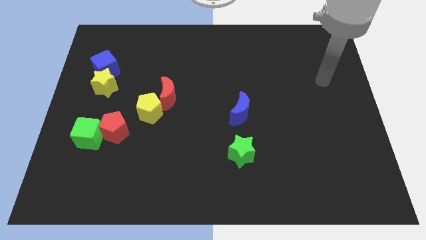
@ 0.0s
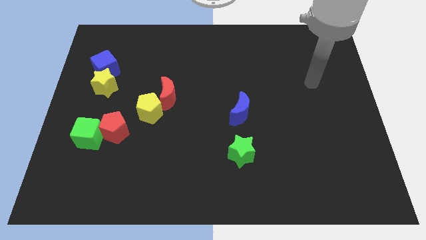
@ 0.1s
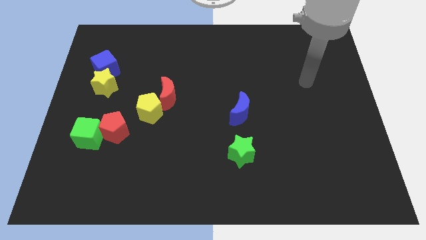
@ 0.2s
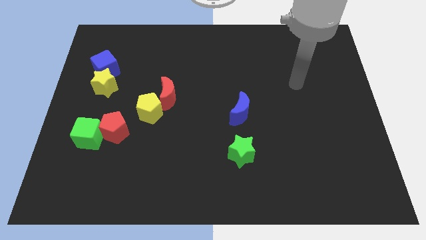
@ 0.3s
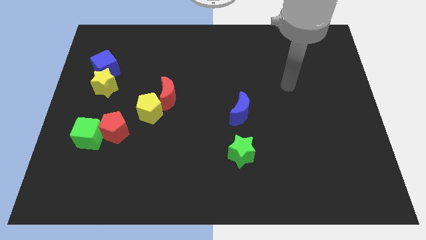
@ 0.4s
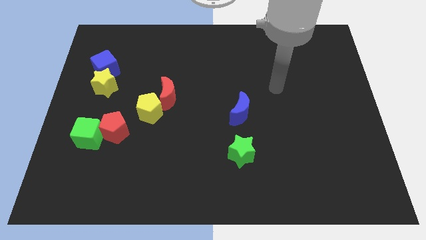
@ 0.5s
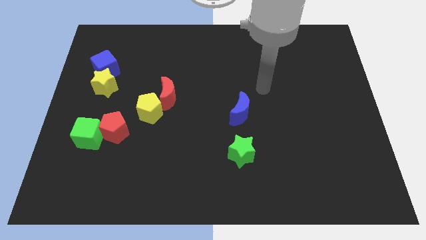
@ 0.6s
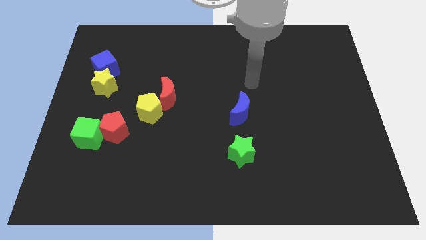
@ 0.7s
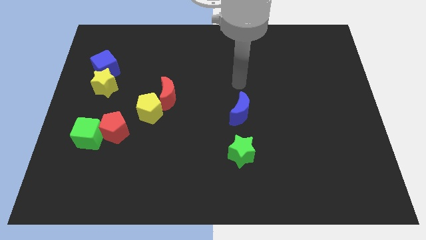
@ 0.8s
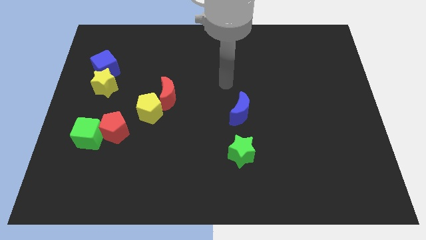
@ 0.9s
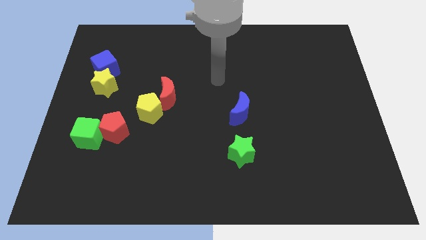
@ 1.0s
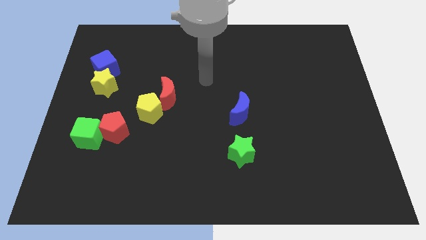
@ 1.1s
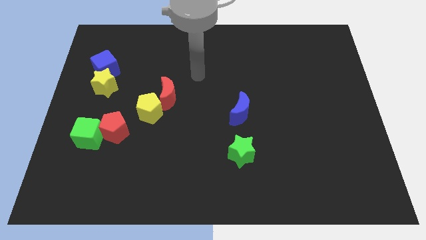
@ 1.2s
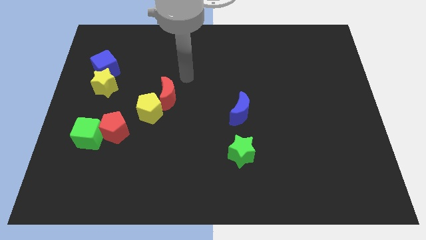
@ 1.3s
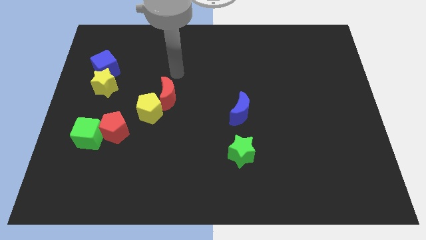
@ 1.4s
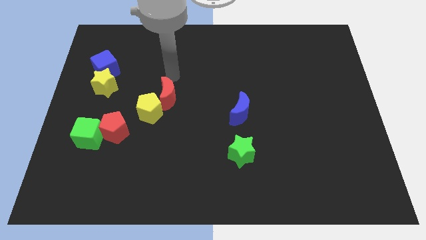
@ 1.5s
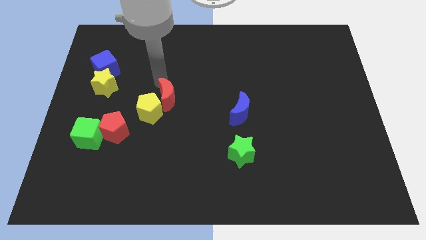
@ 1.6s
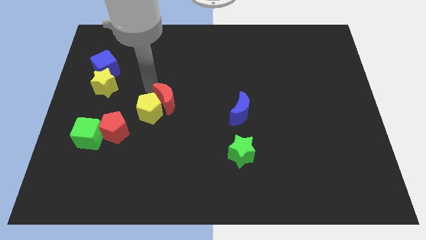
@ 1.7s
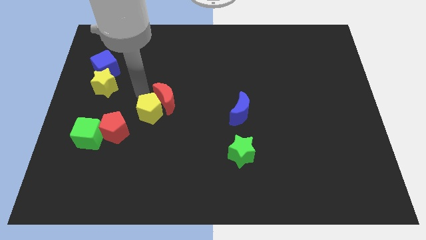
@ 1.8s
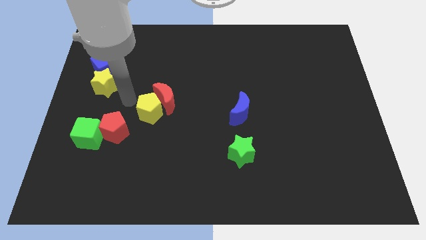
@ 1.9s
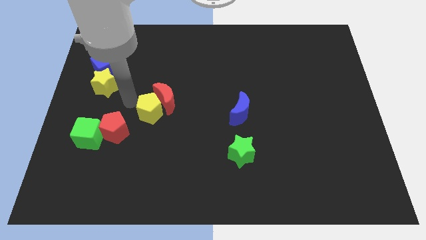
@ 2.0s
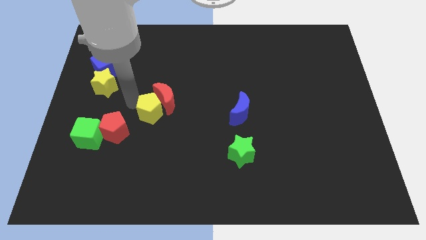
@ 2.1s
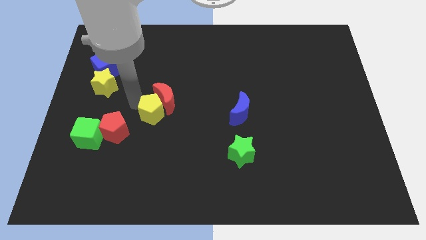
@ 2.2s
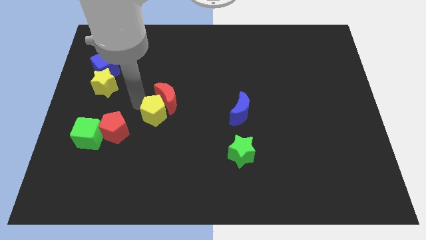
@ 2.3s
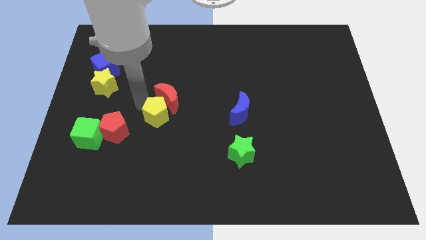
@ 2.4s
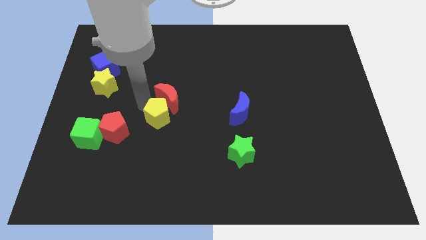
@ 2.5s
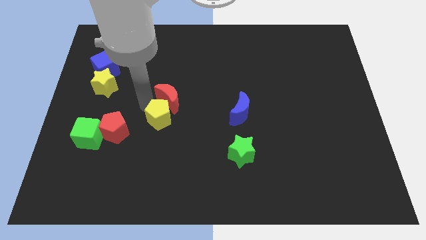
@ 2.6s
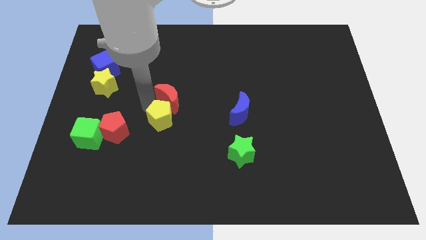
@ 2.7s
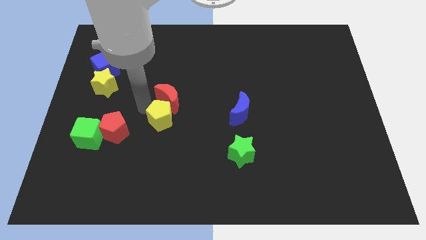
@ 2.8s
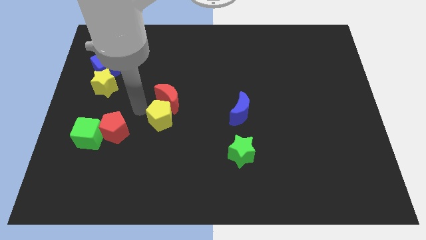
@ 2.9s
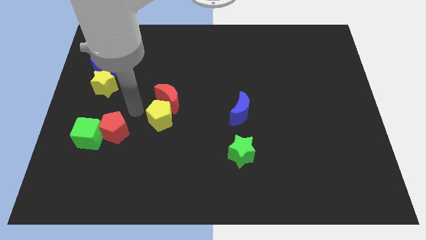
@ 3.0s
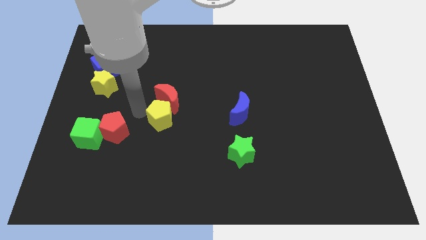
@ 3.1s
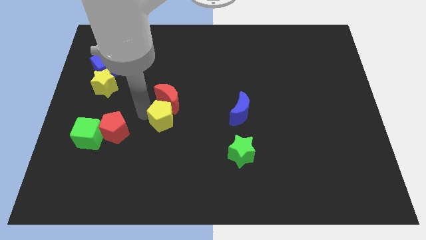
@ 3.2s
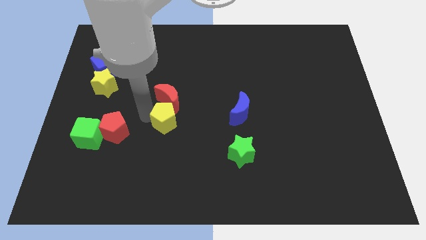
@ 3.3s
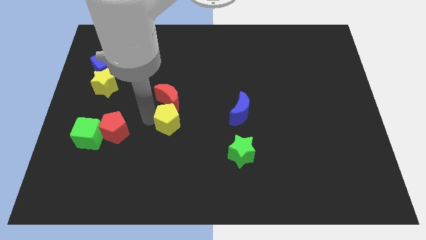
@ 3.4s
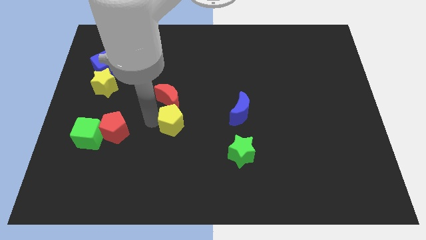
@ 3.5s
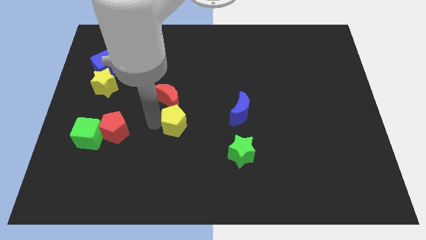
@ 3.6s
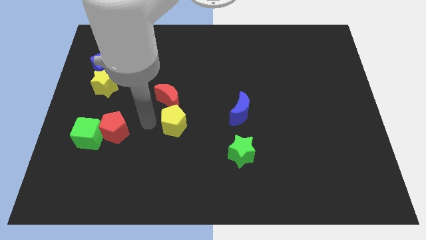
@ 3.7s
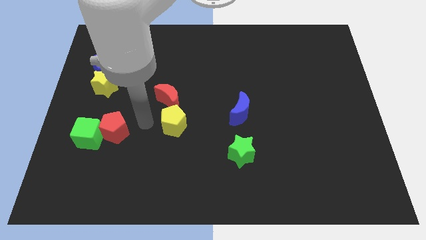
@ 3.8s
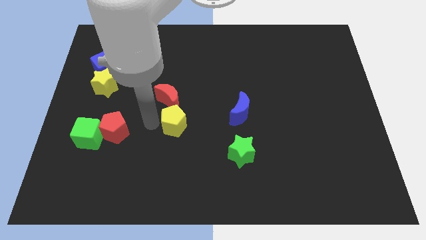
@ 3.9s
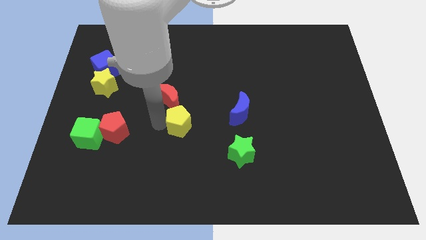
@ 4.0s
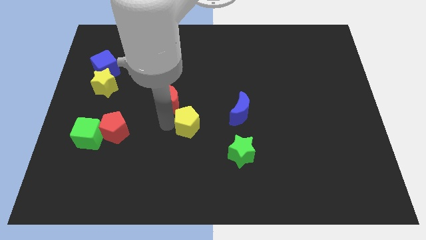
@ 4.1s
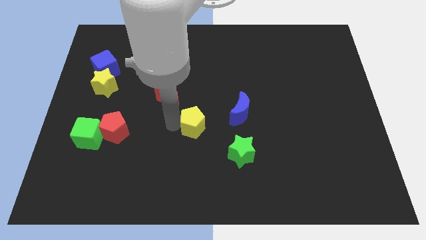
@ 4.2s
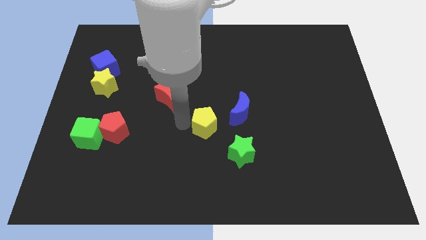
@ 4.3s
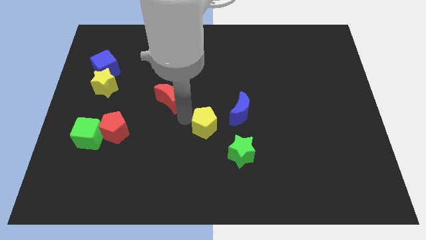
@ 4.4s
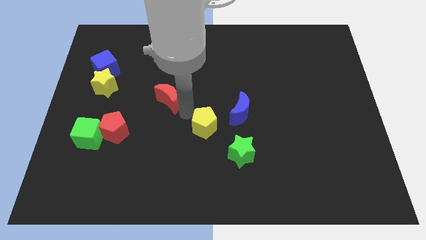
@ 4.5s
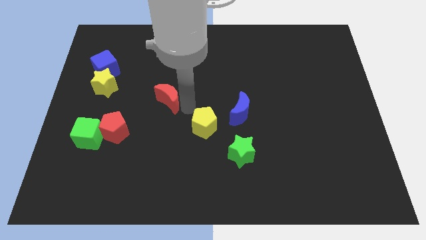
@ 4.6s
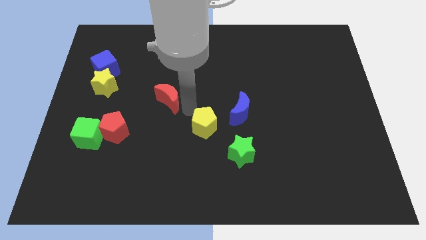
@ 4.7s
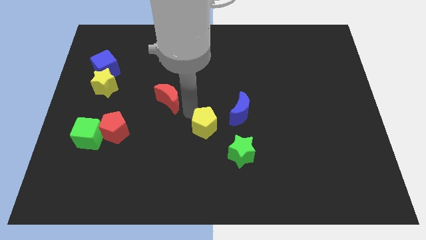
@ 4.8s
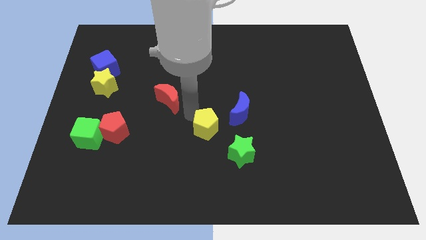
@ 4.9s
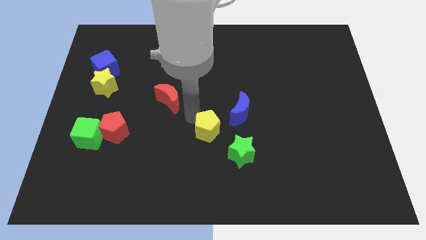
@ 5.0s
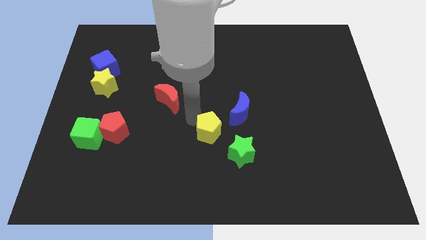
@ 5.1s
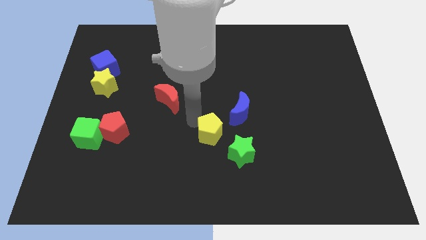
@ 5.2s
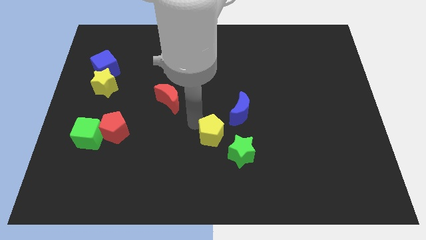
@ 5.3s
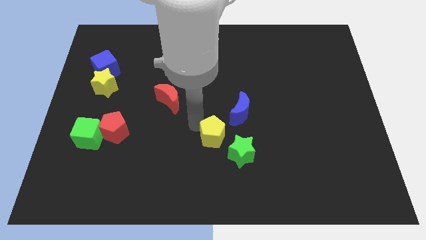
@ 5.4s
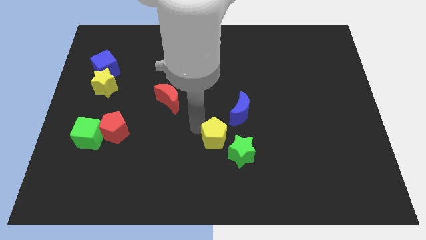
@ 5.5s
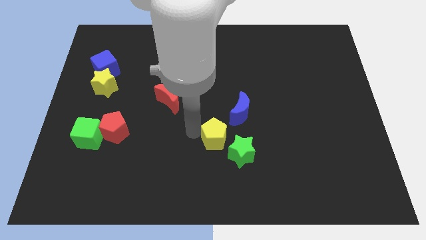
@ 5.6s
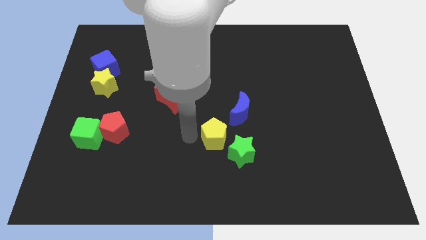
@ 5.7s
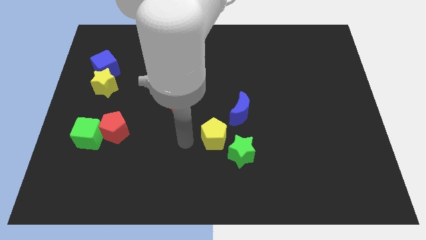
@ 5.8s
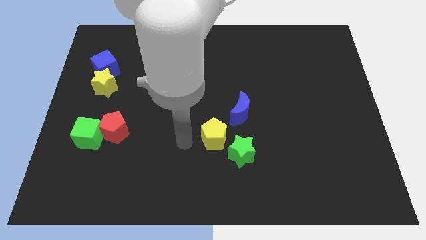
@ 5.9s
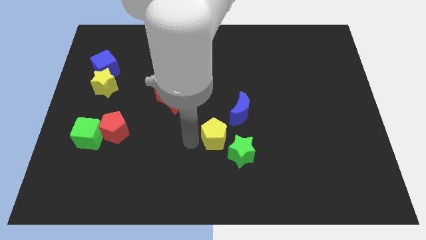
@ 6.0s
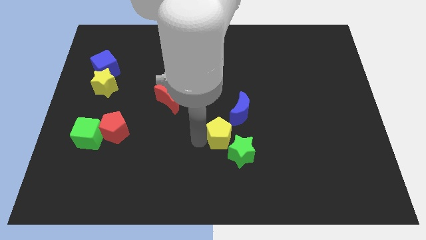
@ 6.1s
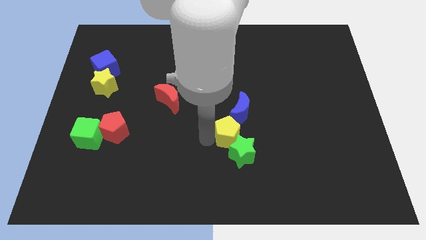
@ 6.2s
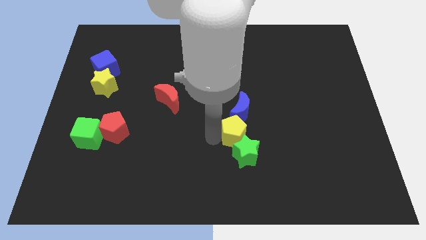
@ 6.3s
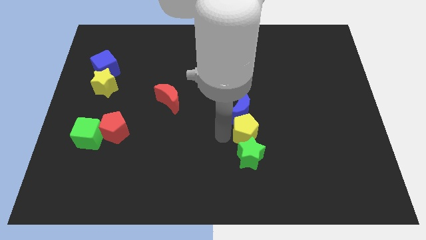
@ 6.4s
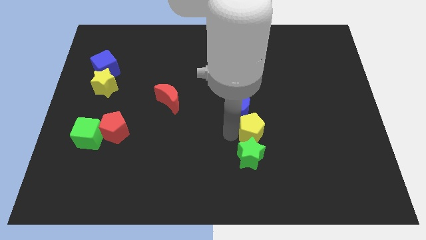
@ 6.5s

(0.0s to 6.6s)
put the yellow pentagon to the top right side of the green star

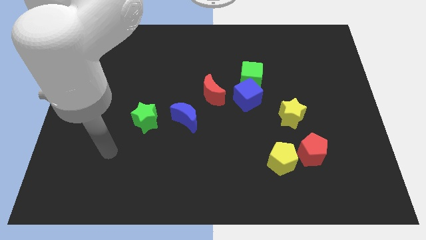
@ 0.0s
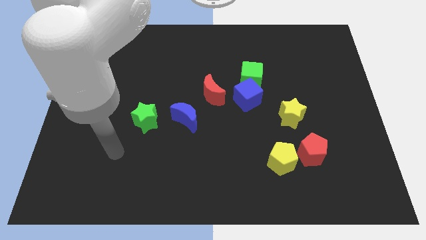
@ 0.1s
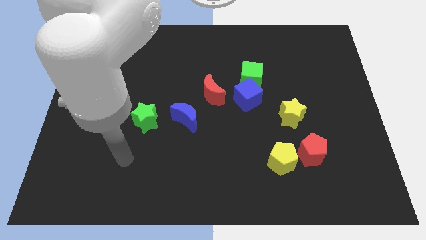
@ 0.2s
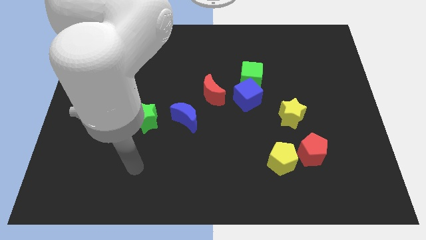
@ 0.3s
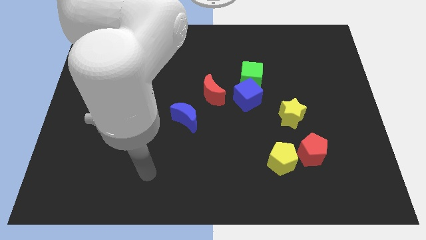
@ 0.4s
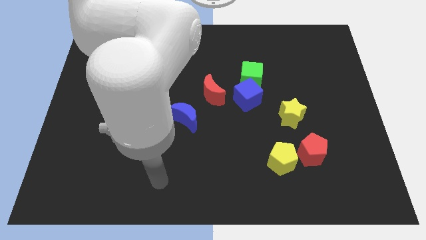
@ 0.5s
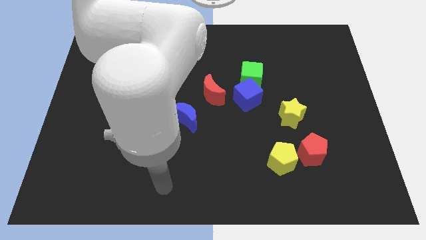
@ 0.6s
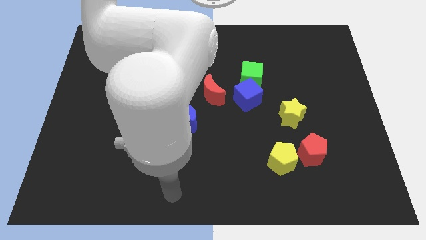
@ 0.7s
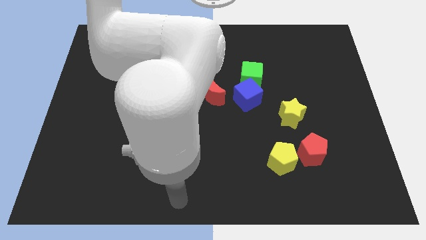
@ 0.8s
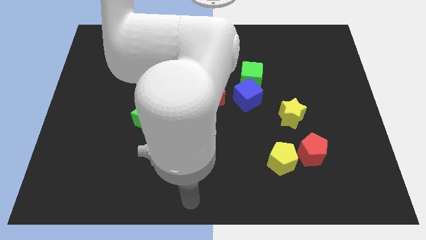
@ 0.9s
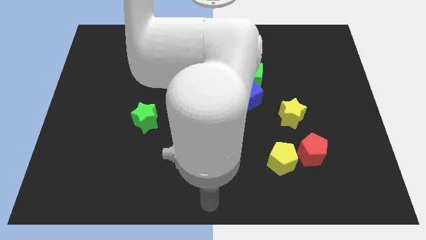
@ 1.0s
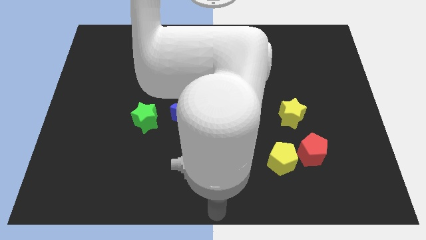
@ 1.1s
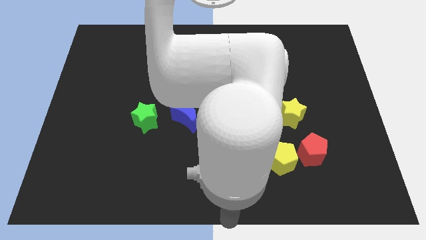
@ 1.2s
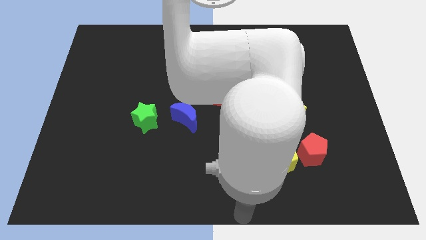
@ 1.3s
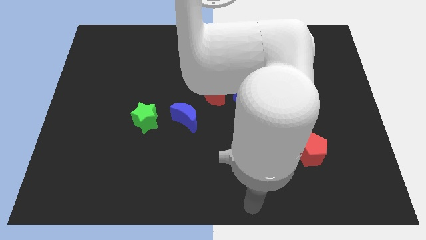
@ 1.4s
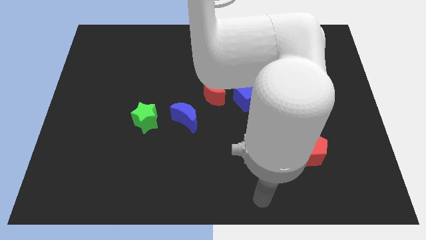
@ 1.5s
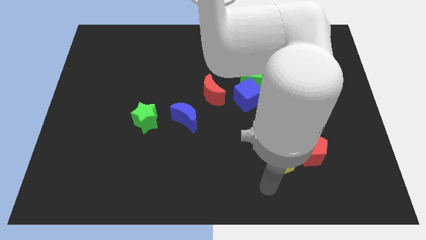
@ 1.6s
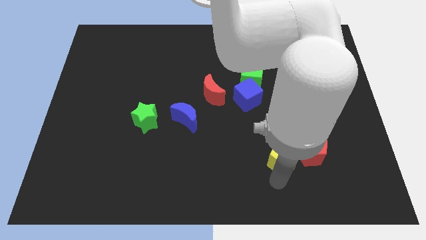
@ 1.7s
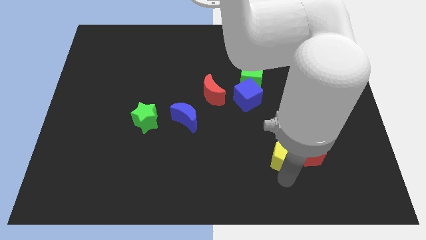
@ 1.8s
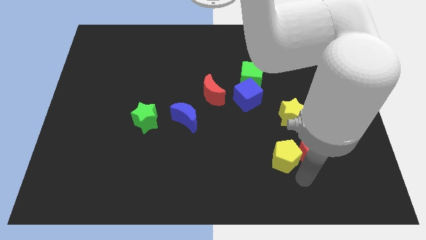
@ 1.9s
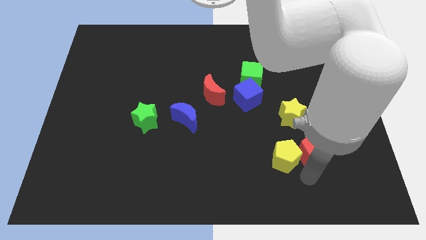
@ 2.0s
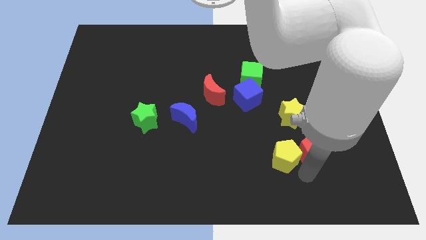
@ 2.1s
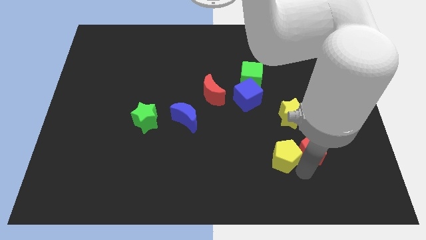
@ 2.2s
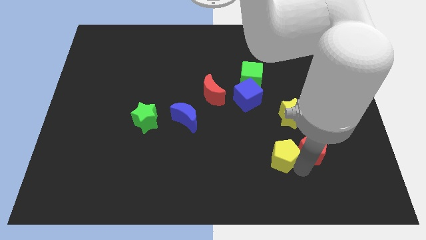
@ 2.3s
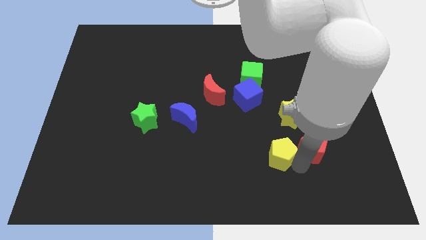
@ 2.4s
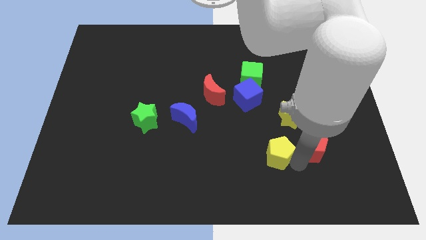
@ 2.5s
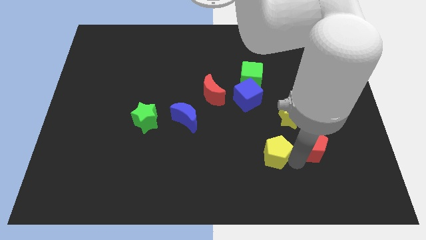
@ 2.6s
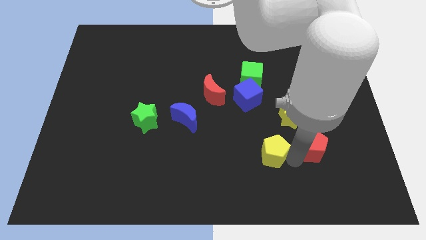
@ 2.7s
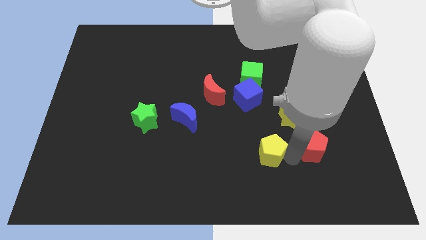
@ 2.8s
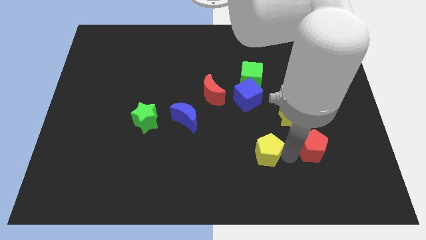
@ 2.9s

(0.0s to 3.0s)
slide the yellow pentagon below the blue cube
